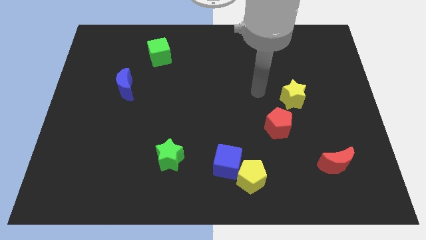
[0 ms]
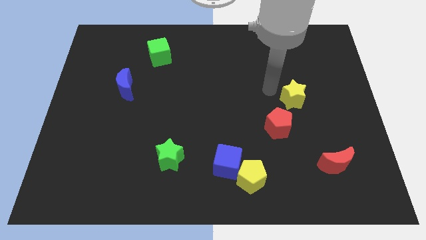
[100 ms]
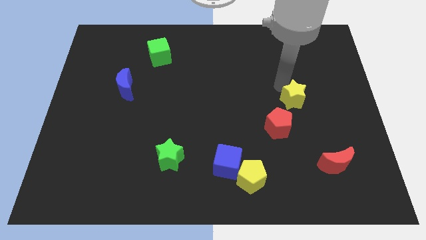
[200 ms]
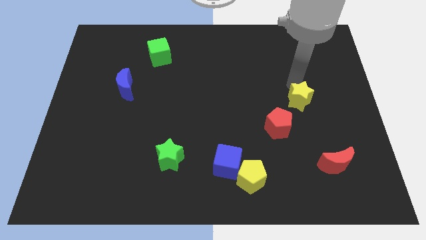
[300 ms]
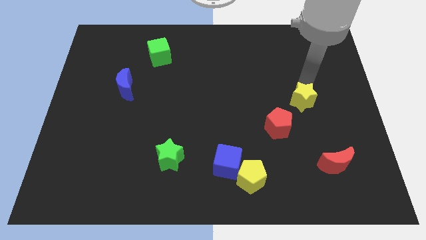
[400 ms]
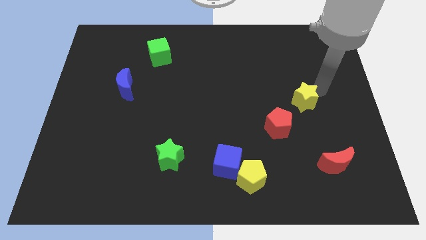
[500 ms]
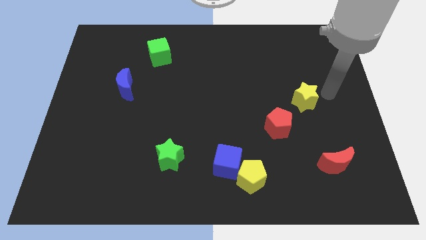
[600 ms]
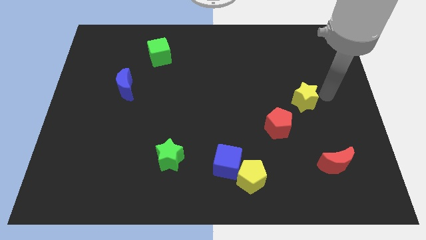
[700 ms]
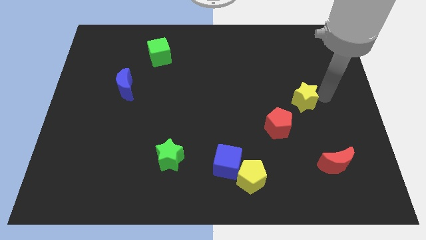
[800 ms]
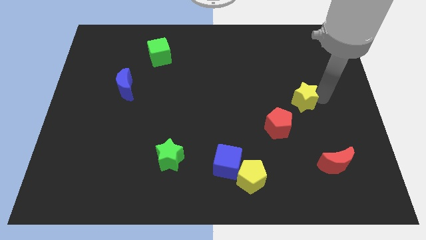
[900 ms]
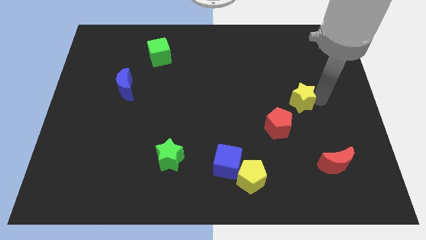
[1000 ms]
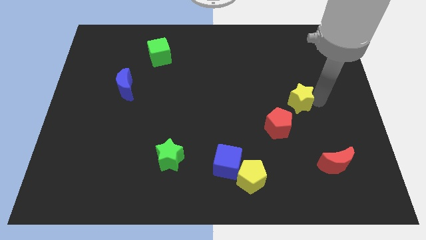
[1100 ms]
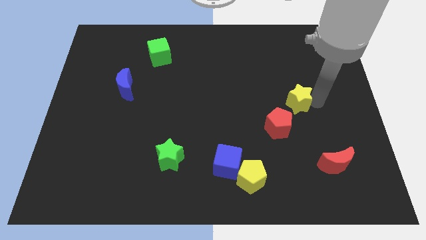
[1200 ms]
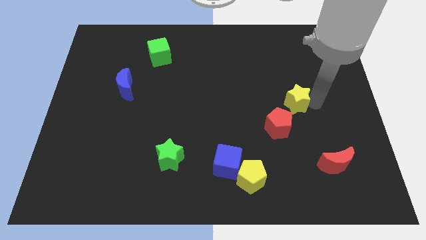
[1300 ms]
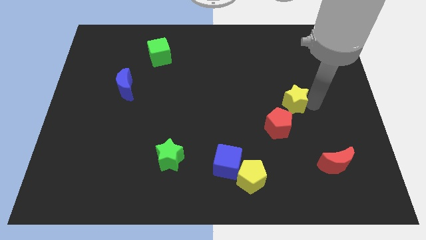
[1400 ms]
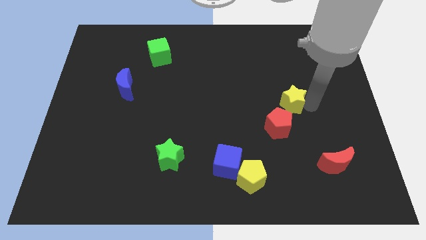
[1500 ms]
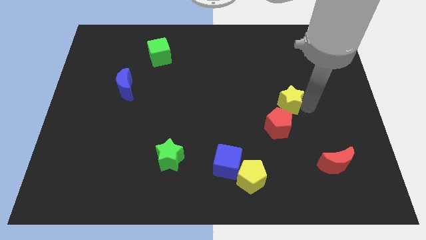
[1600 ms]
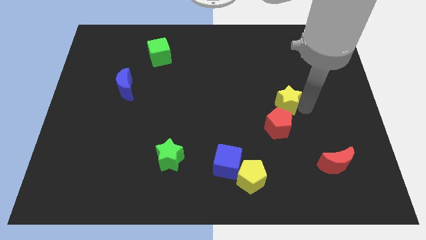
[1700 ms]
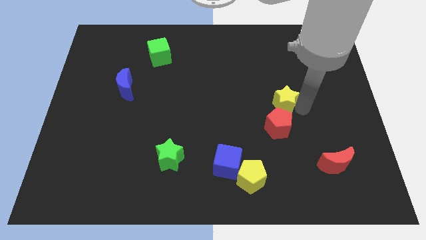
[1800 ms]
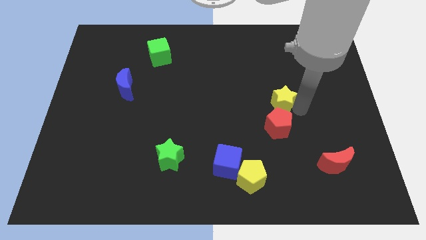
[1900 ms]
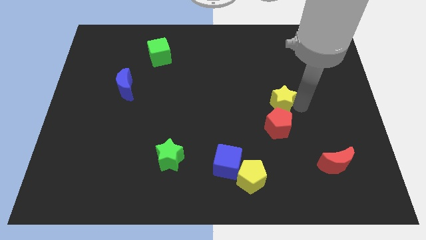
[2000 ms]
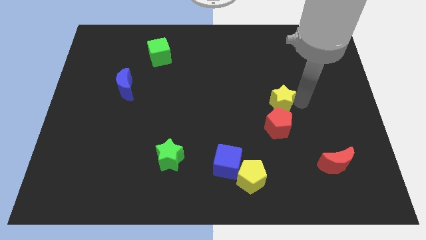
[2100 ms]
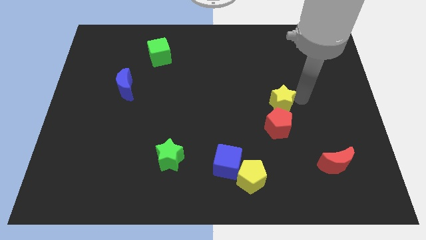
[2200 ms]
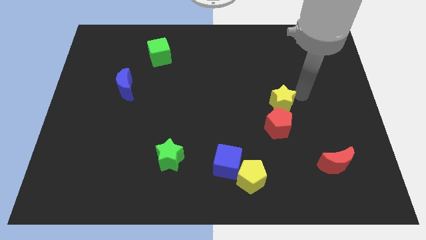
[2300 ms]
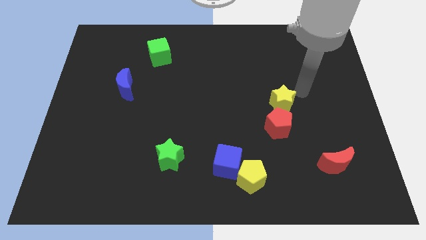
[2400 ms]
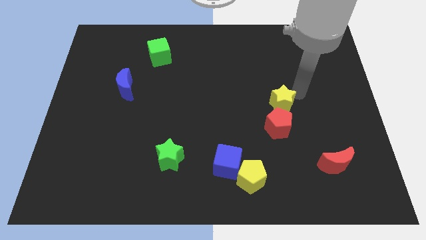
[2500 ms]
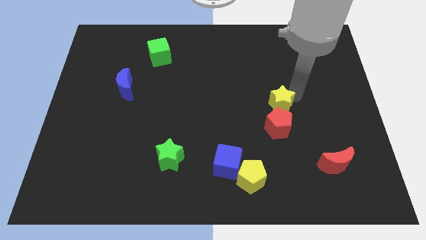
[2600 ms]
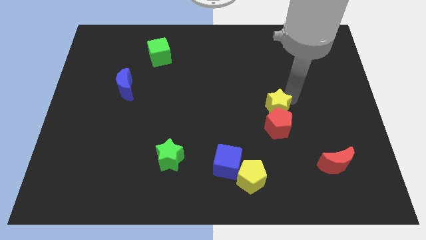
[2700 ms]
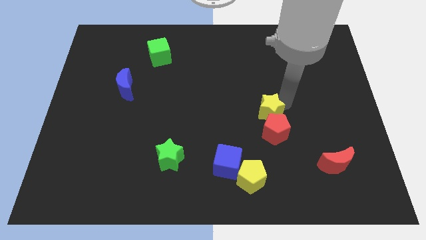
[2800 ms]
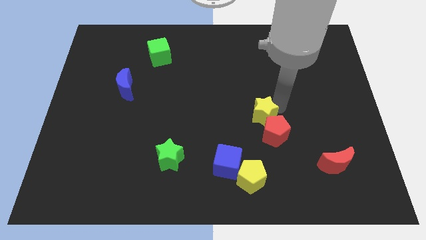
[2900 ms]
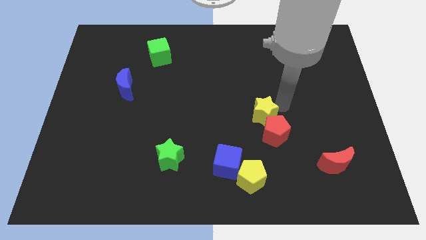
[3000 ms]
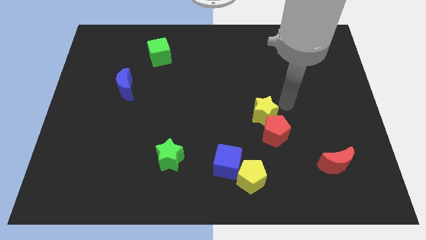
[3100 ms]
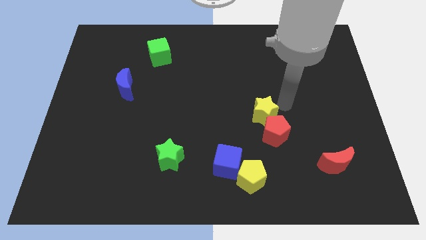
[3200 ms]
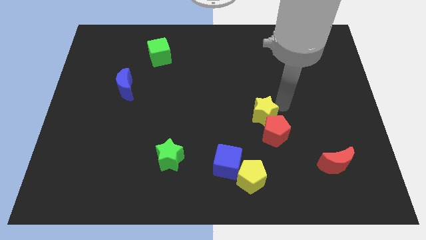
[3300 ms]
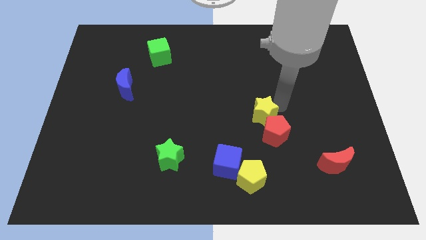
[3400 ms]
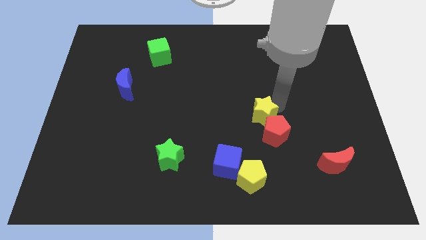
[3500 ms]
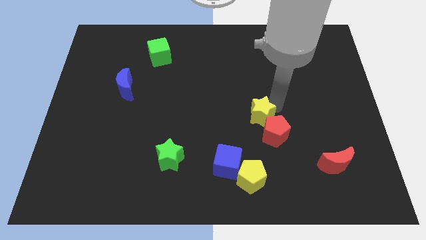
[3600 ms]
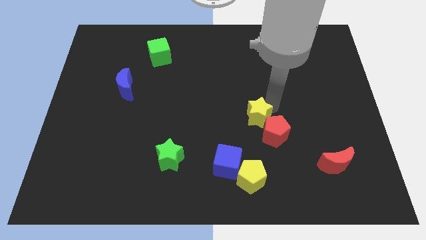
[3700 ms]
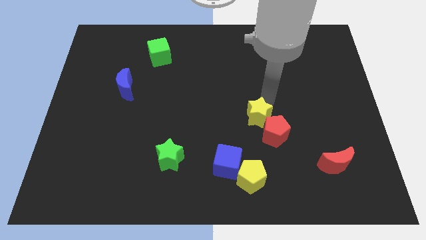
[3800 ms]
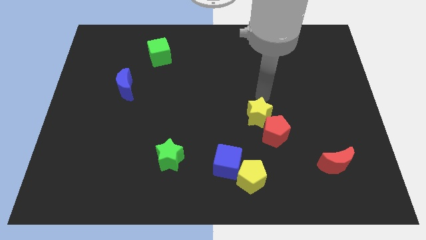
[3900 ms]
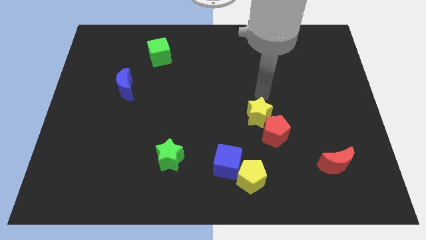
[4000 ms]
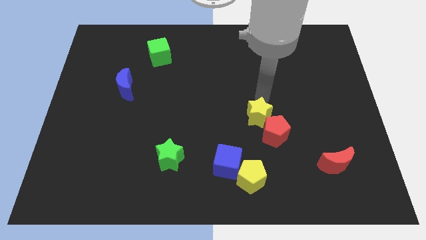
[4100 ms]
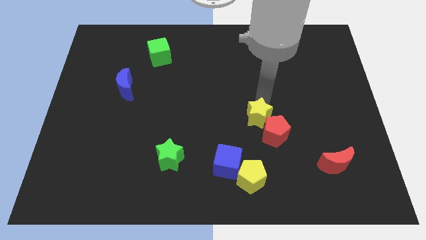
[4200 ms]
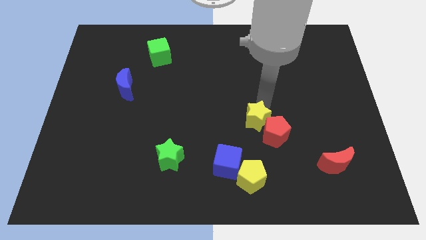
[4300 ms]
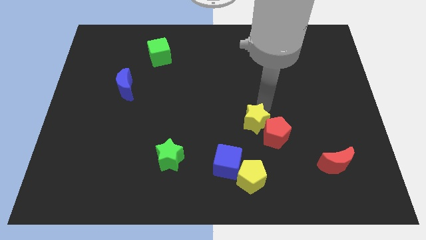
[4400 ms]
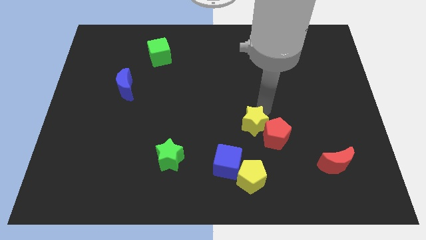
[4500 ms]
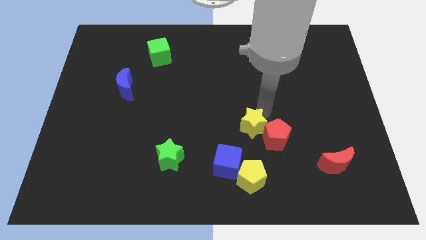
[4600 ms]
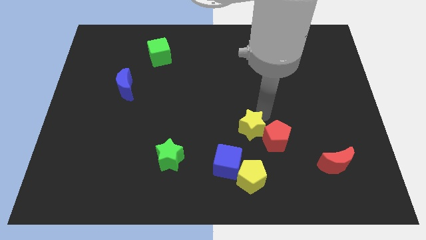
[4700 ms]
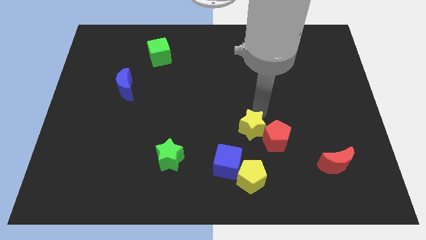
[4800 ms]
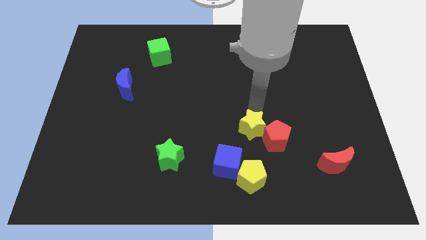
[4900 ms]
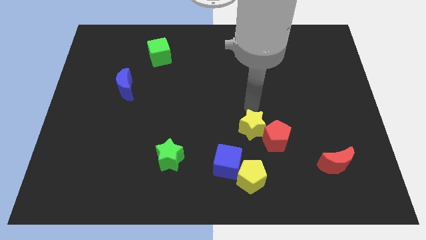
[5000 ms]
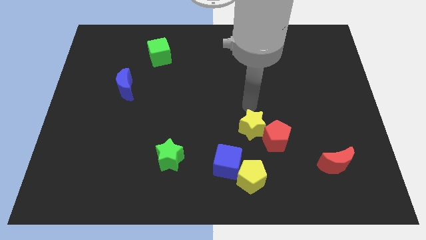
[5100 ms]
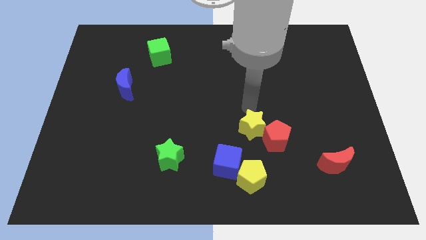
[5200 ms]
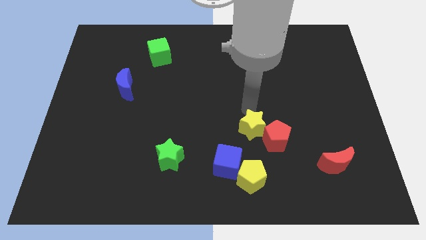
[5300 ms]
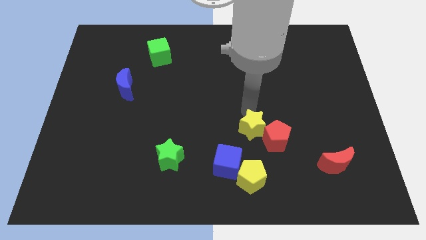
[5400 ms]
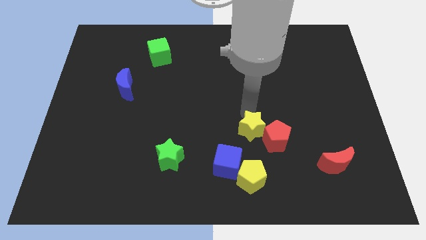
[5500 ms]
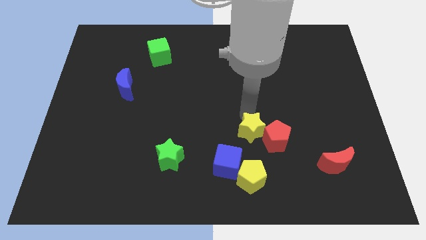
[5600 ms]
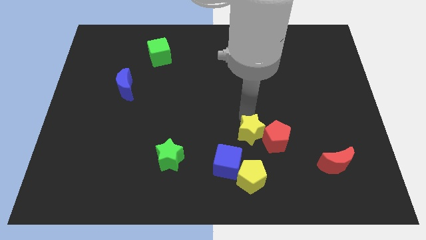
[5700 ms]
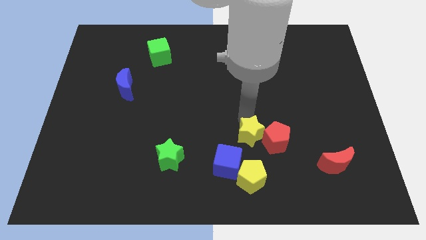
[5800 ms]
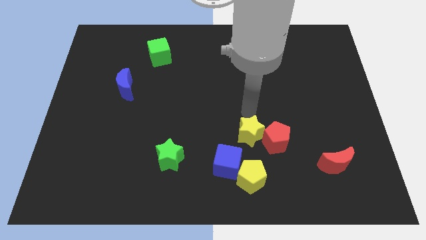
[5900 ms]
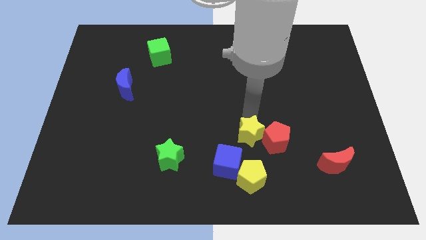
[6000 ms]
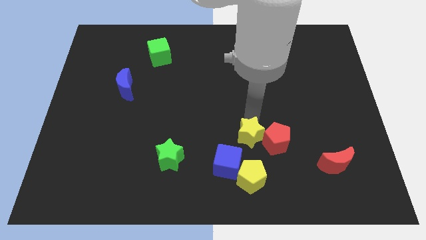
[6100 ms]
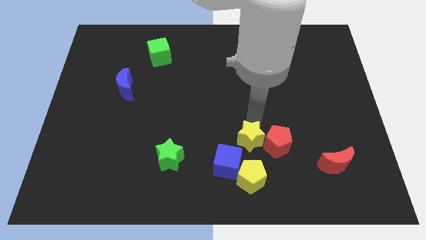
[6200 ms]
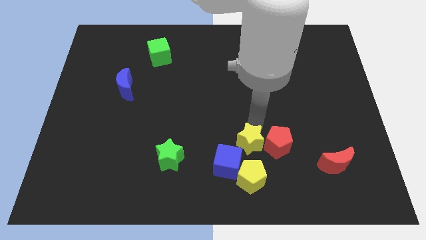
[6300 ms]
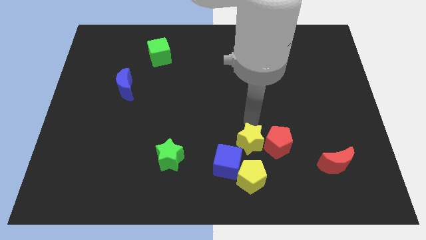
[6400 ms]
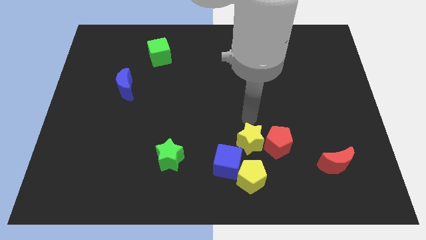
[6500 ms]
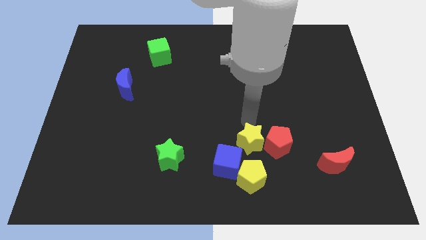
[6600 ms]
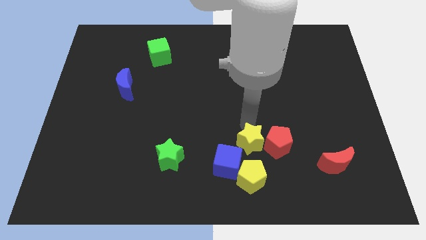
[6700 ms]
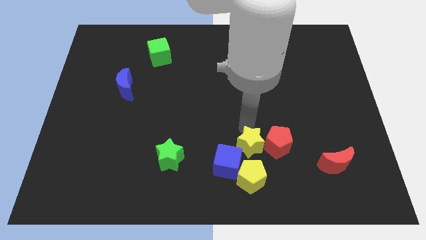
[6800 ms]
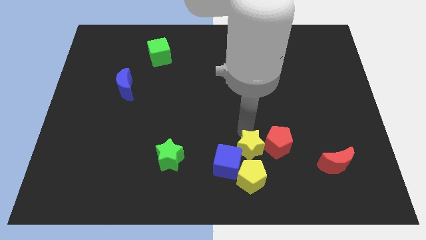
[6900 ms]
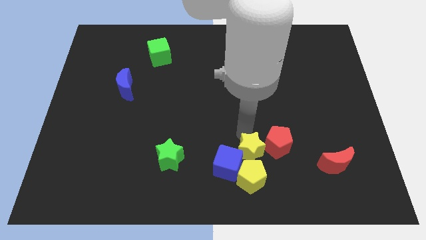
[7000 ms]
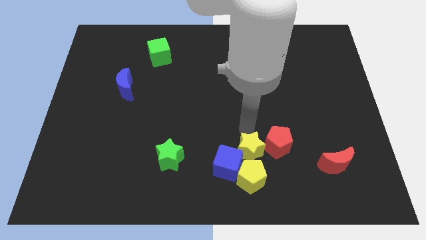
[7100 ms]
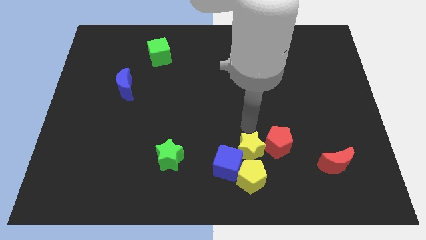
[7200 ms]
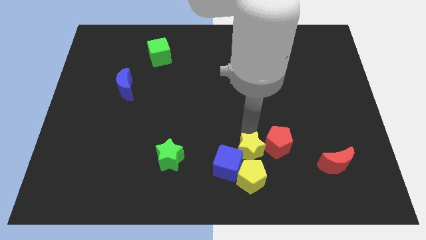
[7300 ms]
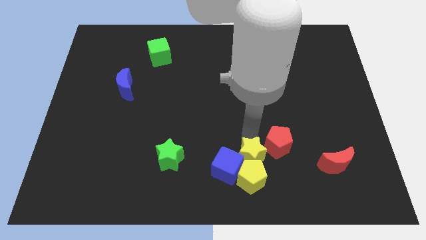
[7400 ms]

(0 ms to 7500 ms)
slide the yellow star towards the yellow pentagon
